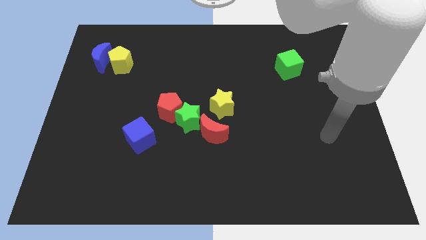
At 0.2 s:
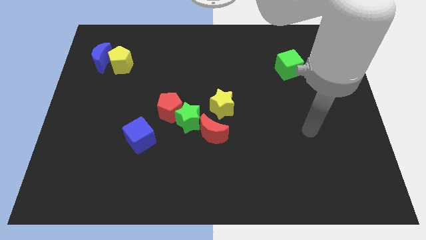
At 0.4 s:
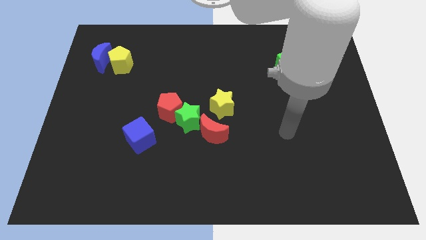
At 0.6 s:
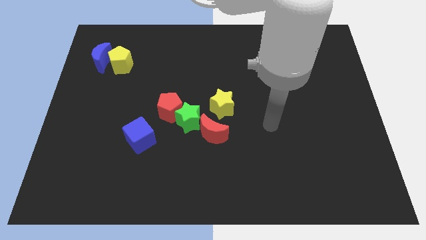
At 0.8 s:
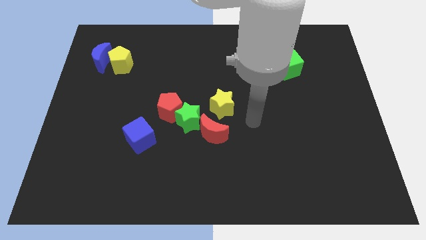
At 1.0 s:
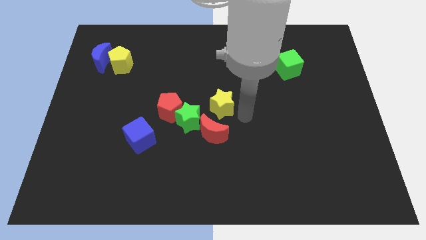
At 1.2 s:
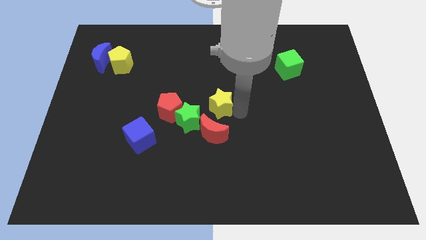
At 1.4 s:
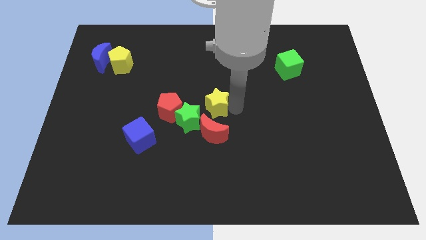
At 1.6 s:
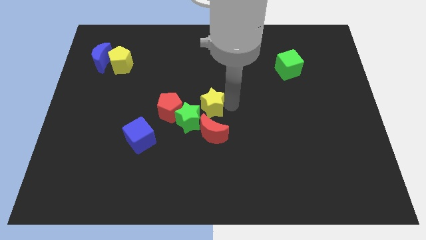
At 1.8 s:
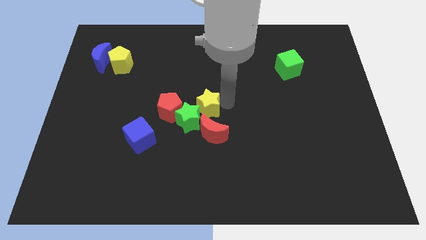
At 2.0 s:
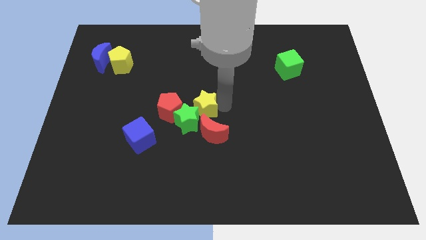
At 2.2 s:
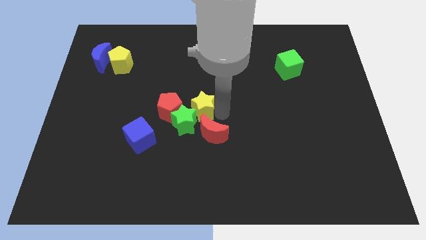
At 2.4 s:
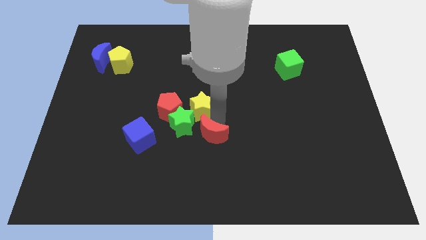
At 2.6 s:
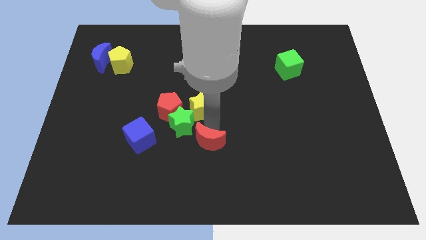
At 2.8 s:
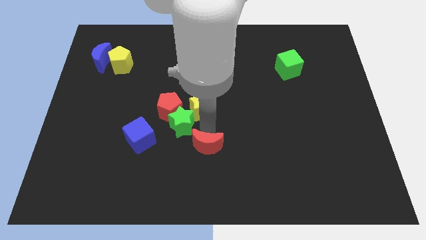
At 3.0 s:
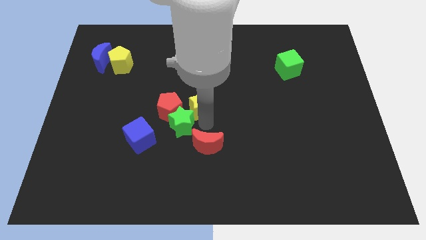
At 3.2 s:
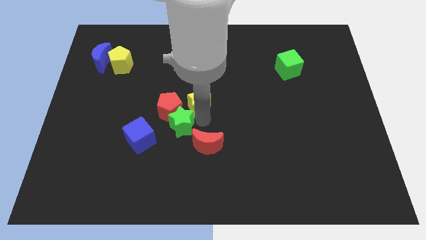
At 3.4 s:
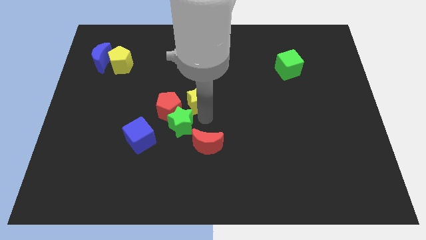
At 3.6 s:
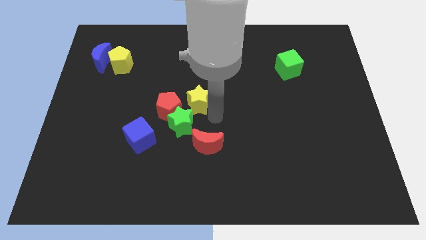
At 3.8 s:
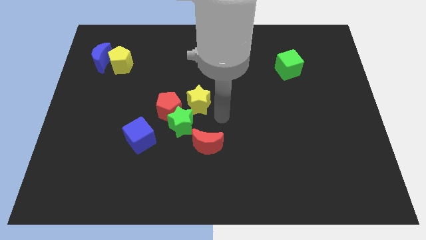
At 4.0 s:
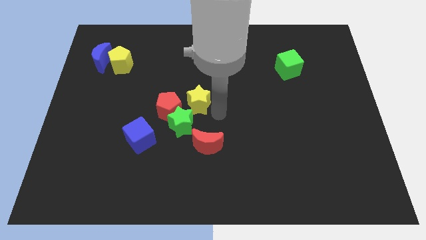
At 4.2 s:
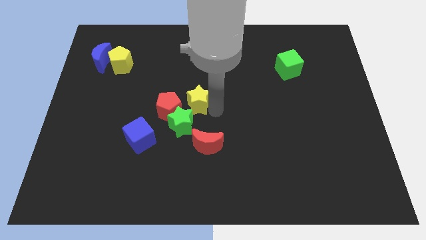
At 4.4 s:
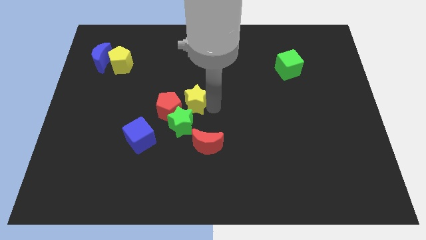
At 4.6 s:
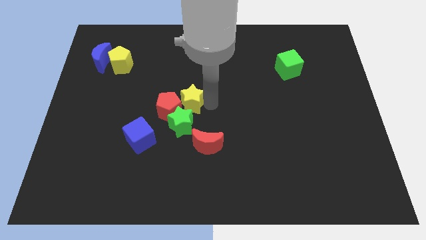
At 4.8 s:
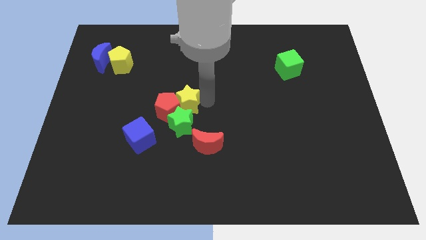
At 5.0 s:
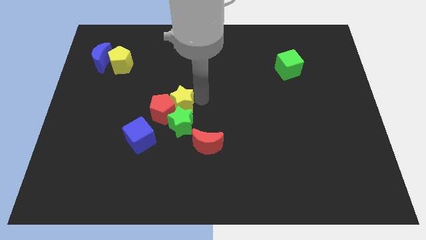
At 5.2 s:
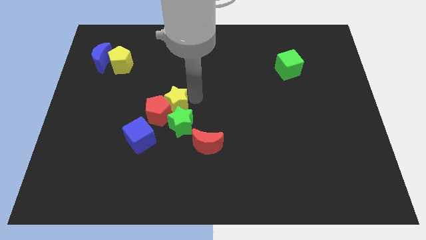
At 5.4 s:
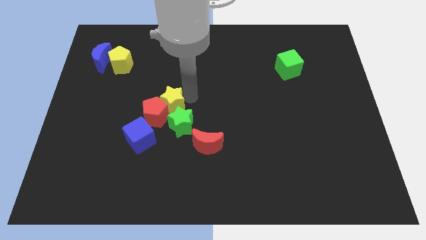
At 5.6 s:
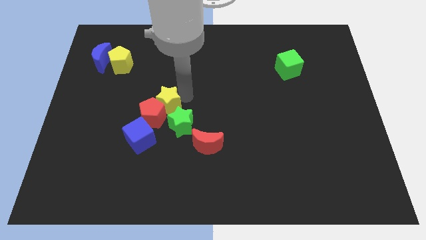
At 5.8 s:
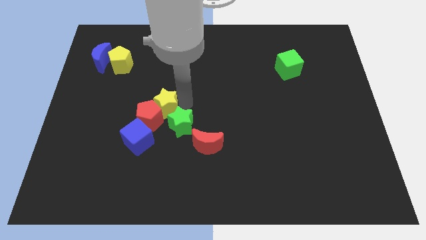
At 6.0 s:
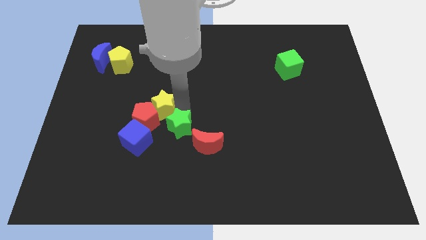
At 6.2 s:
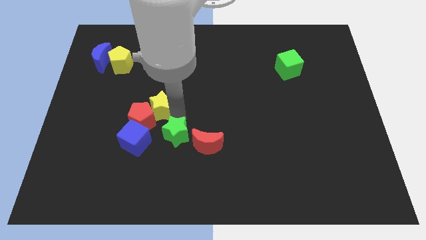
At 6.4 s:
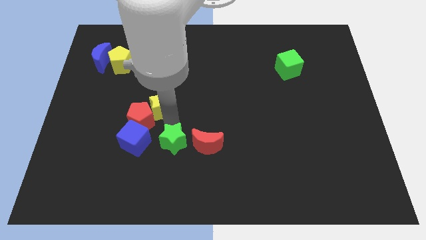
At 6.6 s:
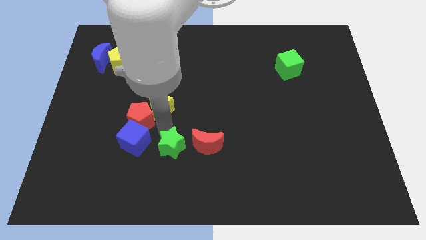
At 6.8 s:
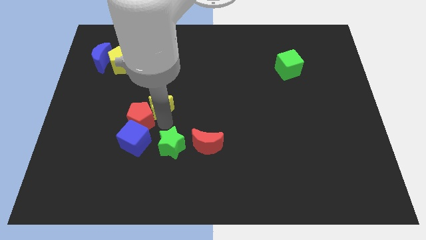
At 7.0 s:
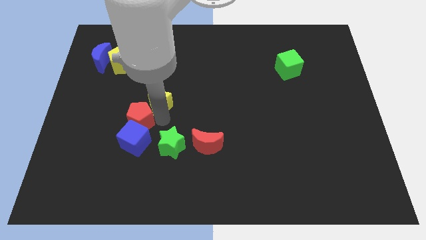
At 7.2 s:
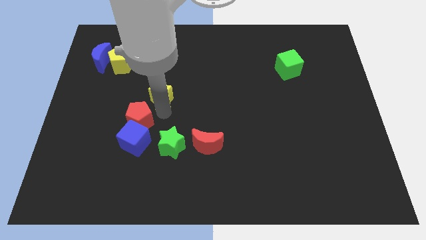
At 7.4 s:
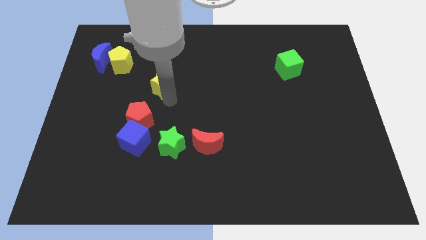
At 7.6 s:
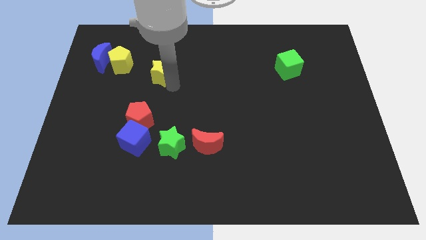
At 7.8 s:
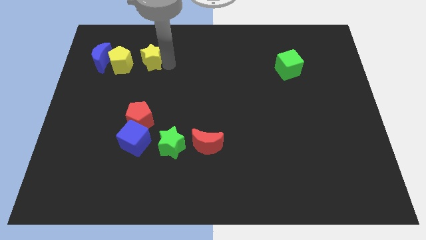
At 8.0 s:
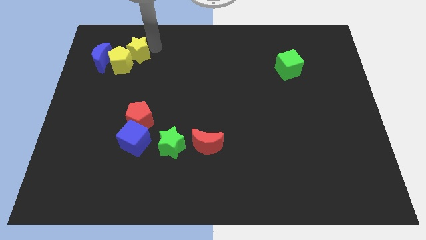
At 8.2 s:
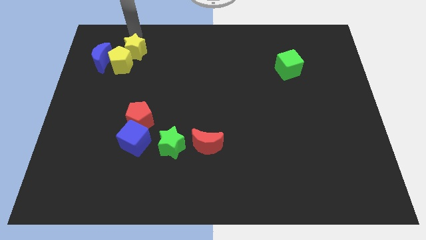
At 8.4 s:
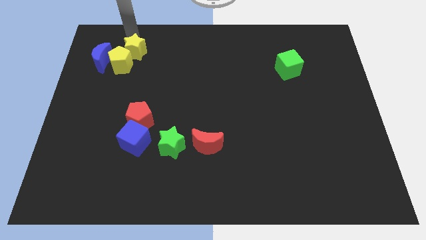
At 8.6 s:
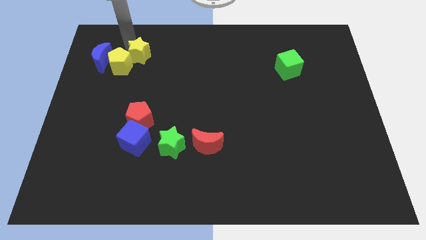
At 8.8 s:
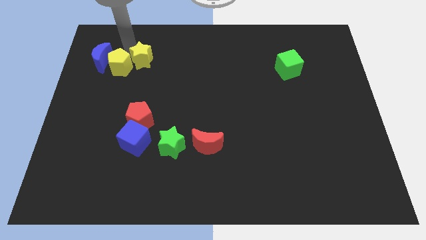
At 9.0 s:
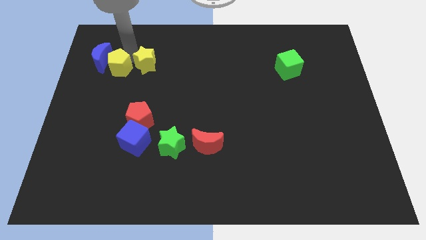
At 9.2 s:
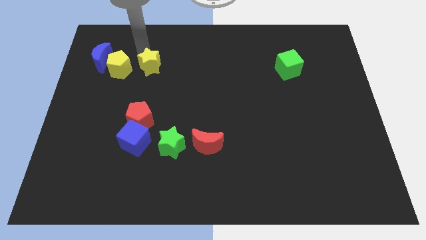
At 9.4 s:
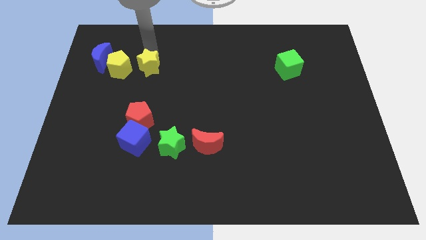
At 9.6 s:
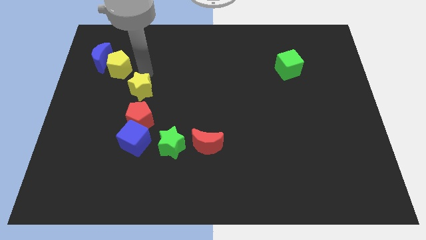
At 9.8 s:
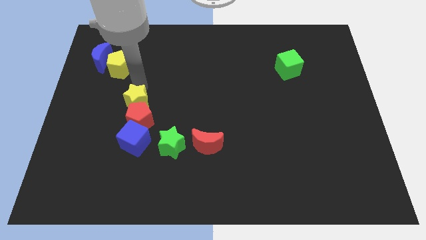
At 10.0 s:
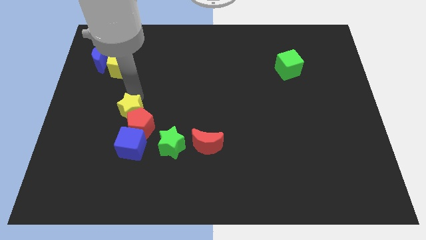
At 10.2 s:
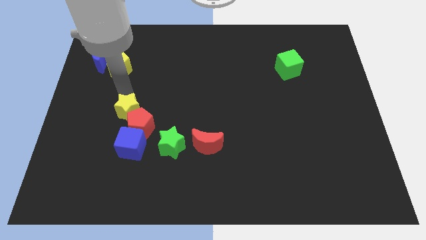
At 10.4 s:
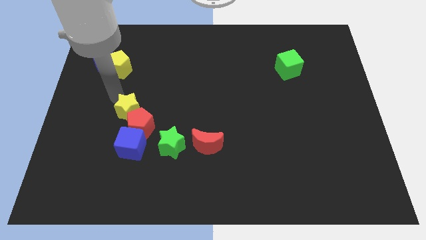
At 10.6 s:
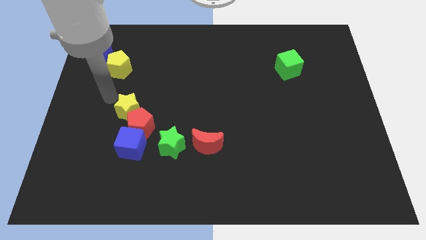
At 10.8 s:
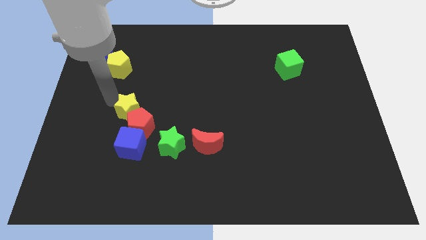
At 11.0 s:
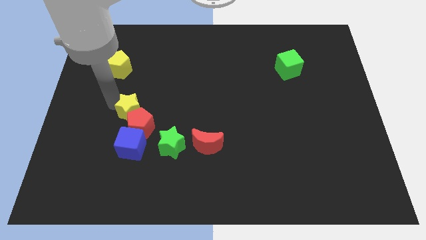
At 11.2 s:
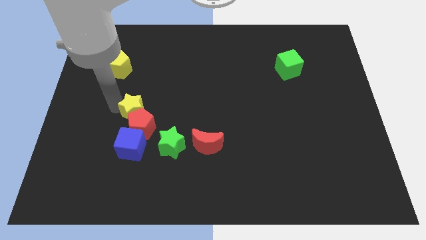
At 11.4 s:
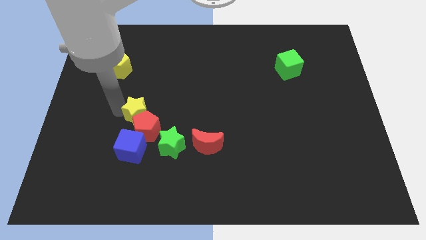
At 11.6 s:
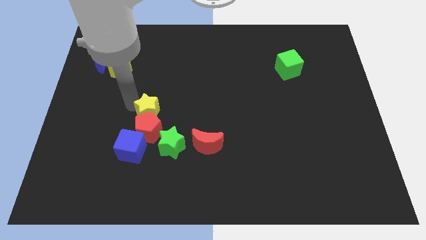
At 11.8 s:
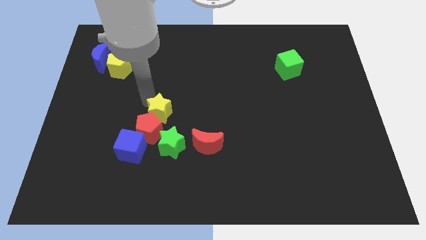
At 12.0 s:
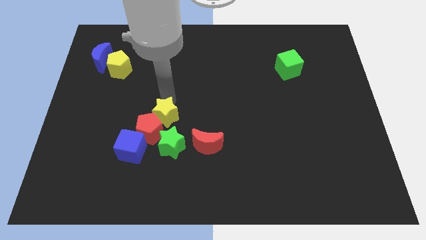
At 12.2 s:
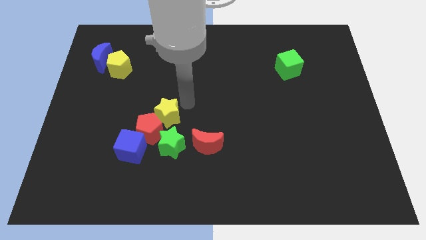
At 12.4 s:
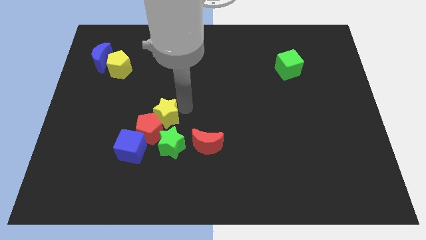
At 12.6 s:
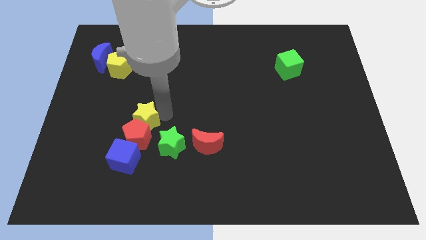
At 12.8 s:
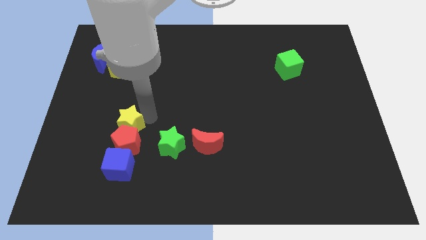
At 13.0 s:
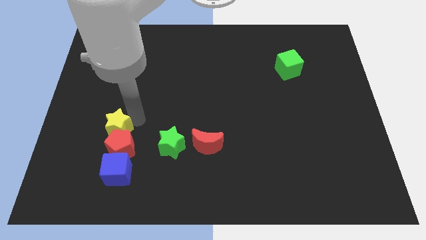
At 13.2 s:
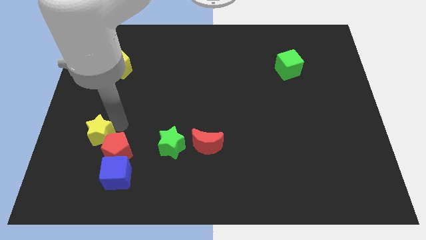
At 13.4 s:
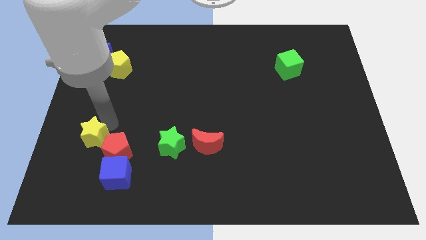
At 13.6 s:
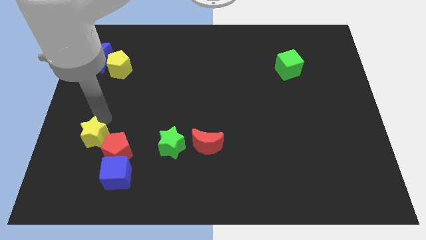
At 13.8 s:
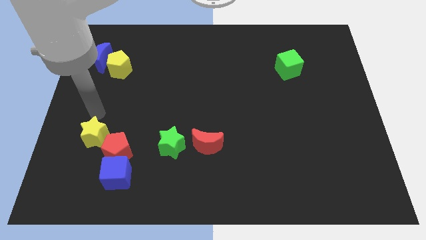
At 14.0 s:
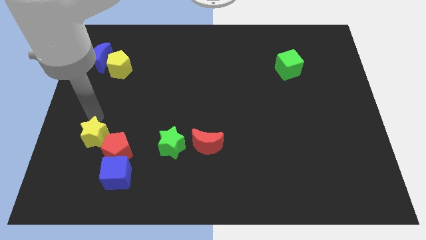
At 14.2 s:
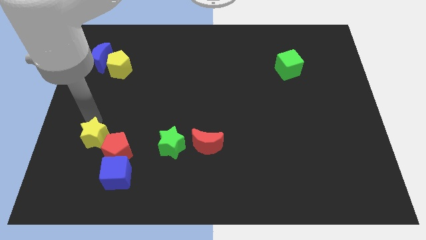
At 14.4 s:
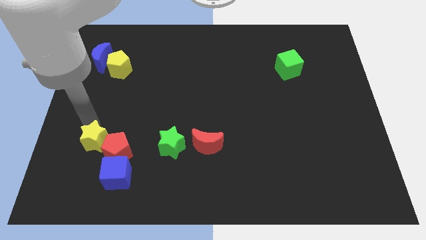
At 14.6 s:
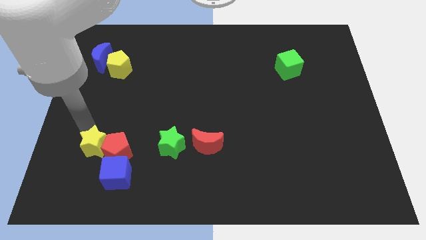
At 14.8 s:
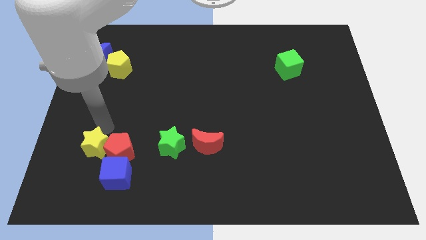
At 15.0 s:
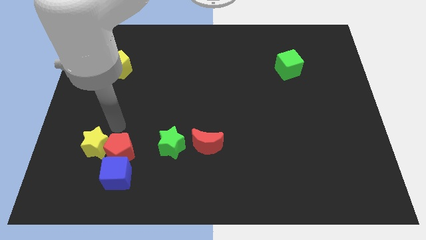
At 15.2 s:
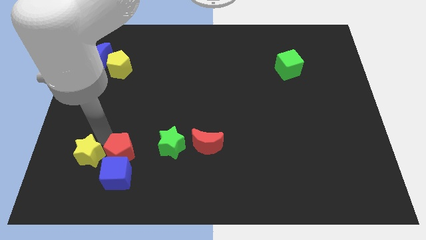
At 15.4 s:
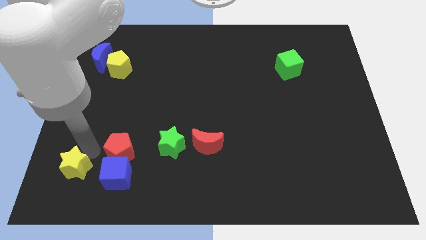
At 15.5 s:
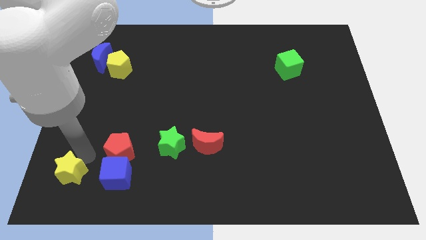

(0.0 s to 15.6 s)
move the yellow star to the bottom left of the board
